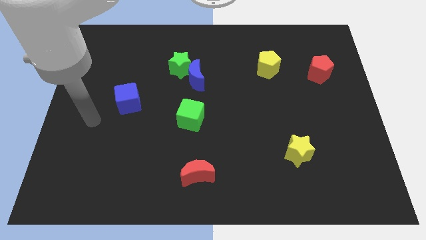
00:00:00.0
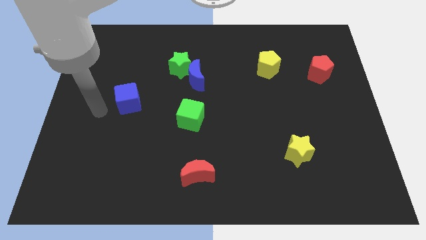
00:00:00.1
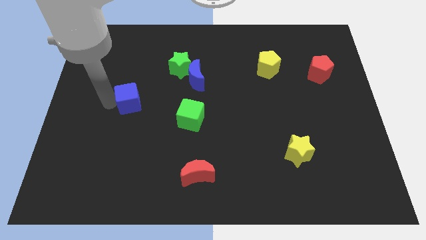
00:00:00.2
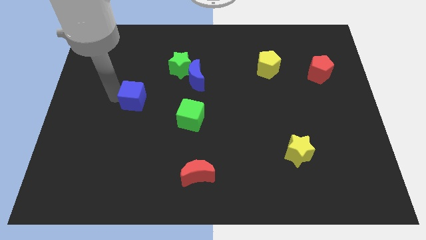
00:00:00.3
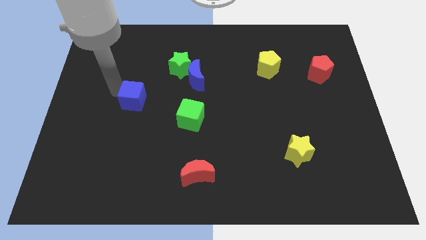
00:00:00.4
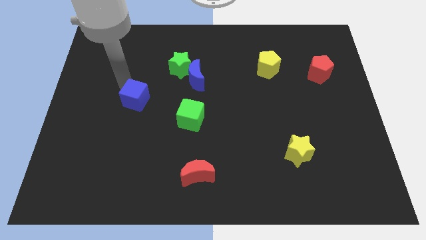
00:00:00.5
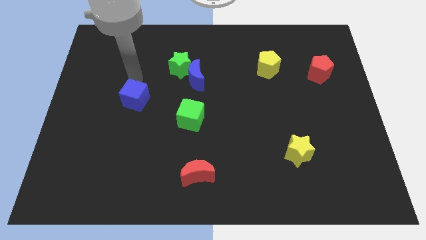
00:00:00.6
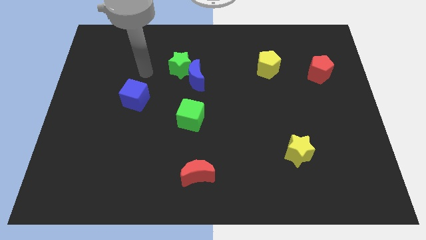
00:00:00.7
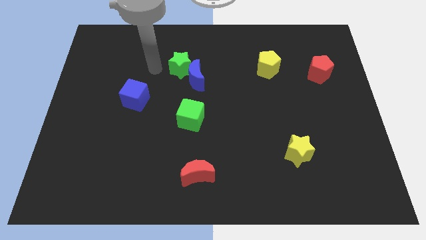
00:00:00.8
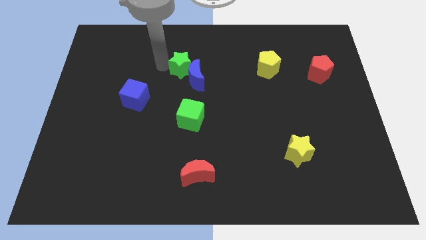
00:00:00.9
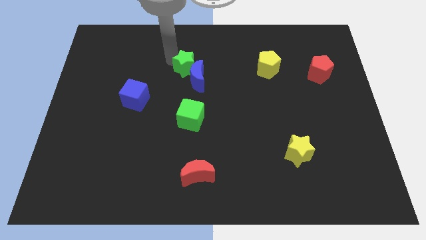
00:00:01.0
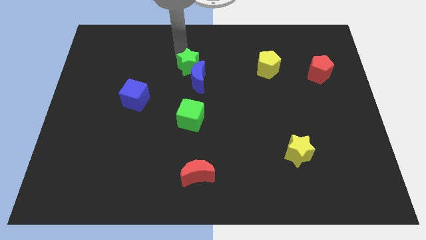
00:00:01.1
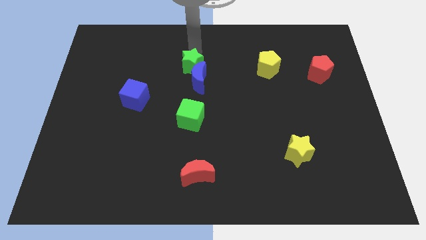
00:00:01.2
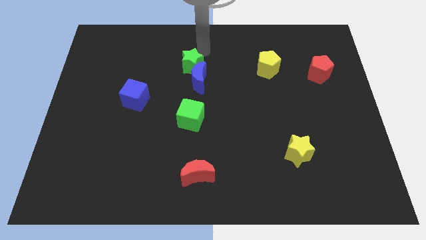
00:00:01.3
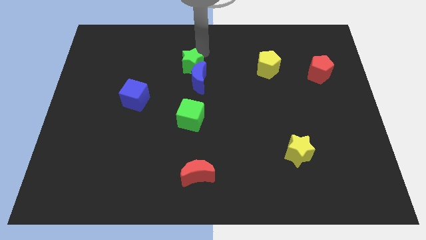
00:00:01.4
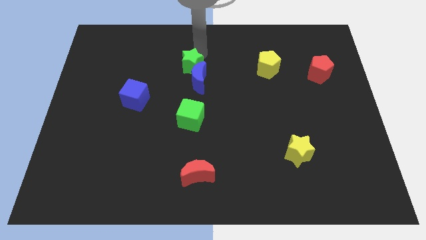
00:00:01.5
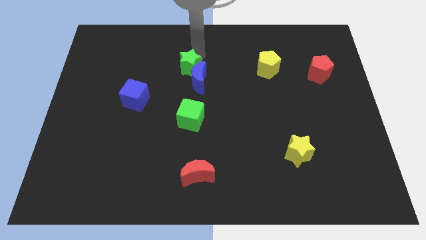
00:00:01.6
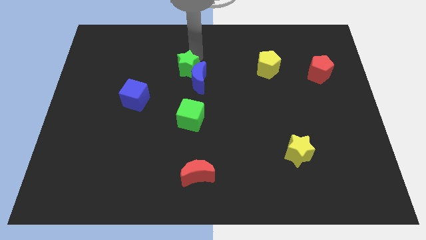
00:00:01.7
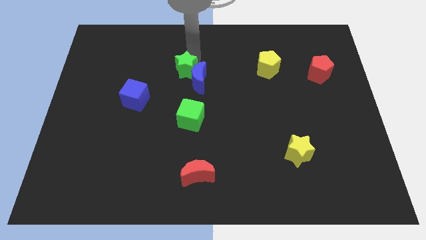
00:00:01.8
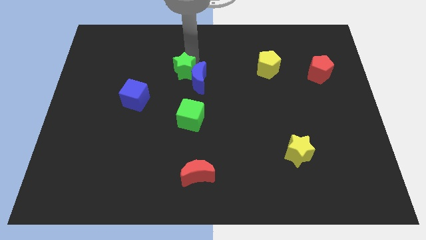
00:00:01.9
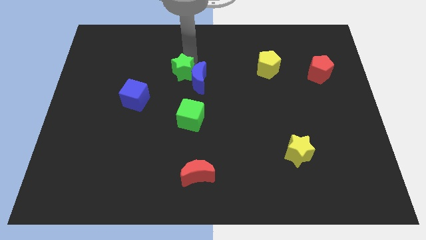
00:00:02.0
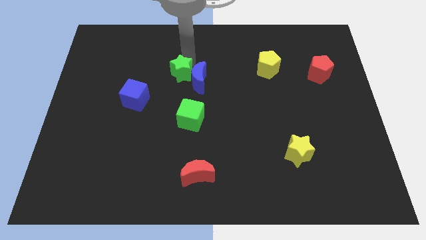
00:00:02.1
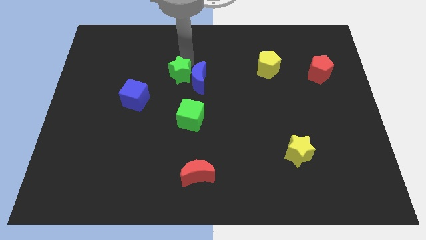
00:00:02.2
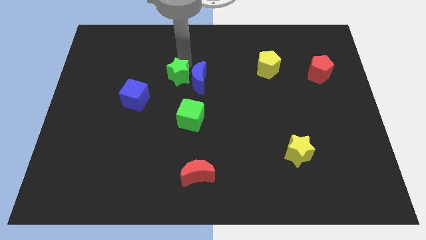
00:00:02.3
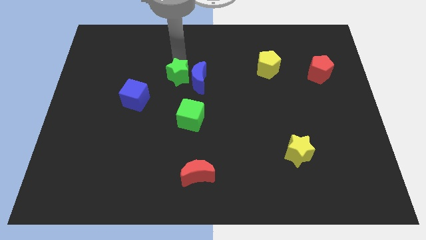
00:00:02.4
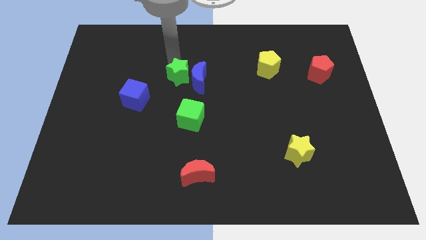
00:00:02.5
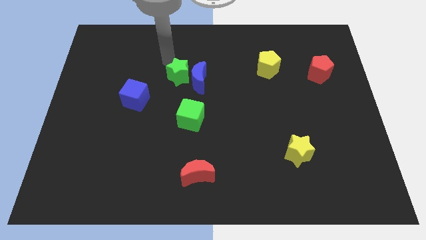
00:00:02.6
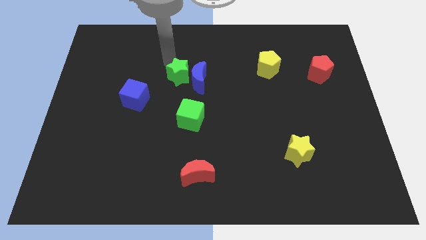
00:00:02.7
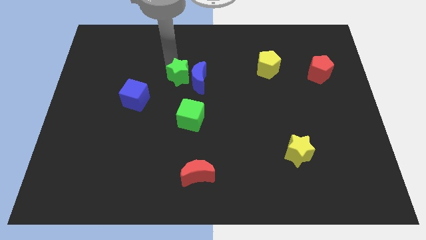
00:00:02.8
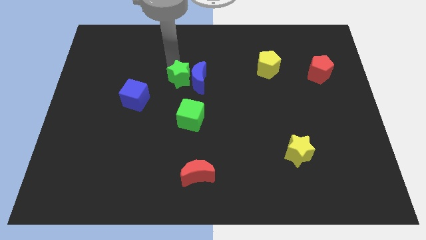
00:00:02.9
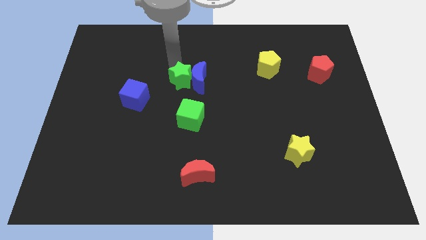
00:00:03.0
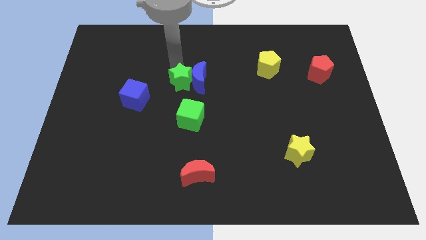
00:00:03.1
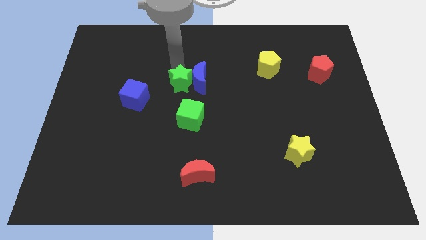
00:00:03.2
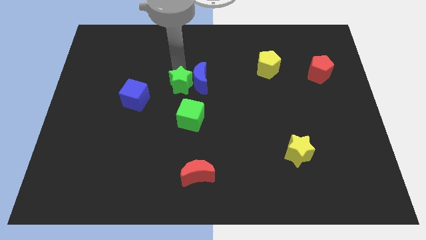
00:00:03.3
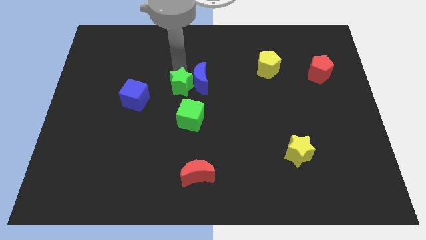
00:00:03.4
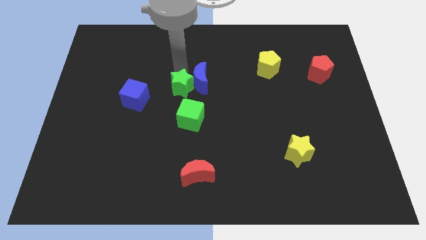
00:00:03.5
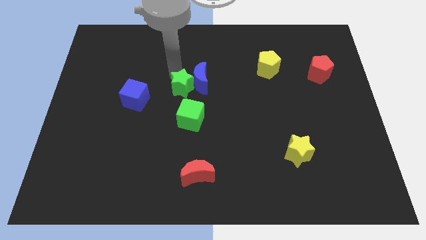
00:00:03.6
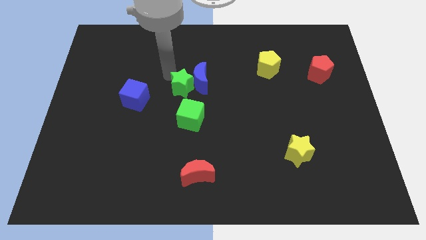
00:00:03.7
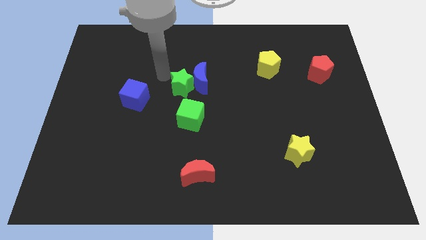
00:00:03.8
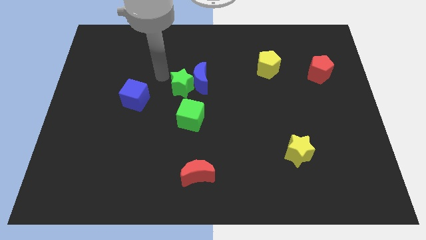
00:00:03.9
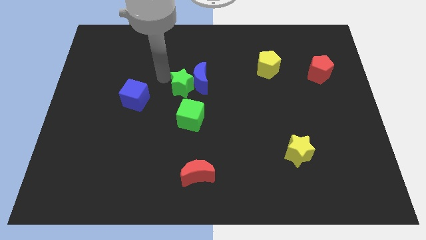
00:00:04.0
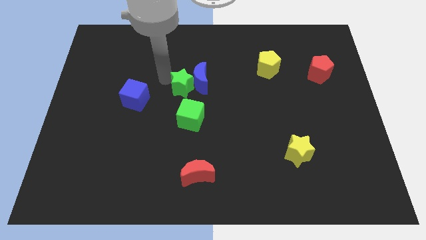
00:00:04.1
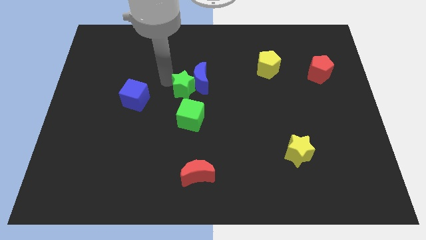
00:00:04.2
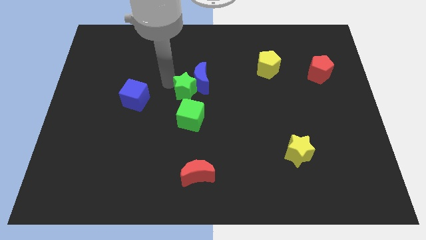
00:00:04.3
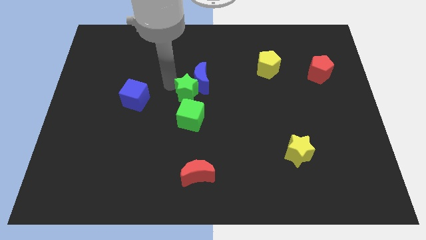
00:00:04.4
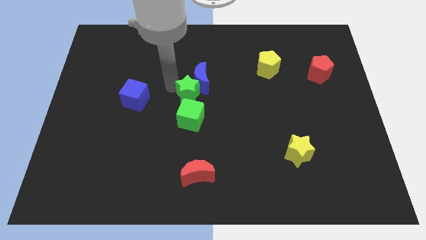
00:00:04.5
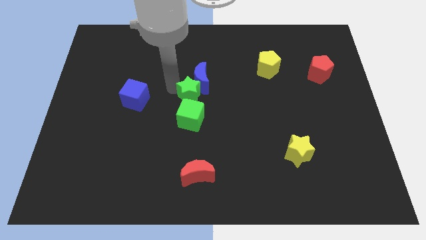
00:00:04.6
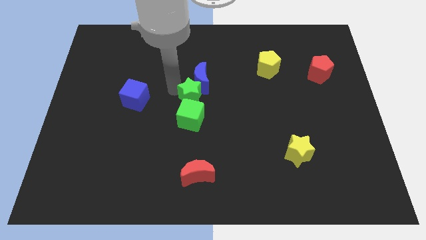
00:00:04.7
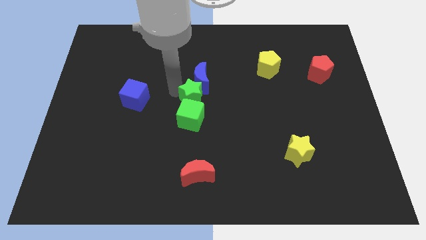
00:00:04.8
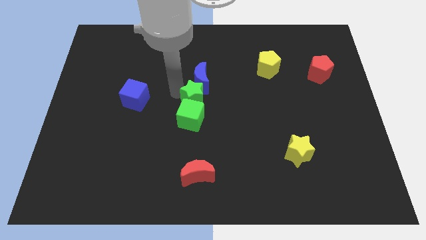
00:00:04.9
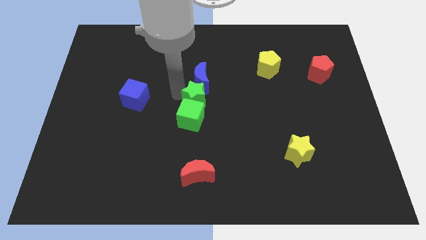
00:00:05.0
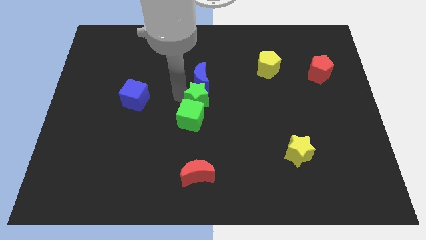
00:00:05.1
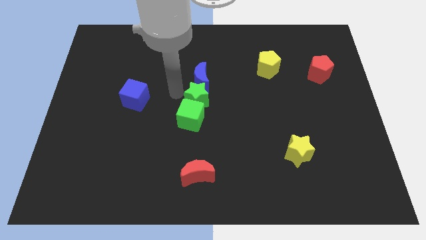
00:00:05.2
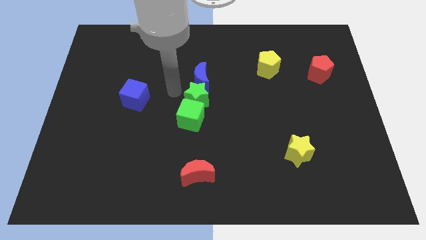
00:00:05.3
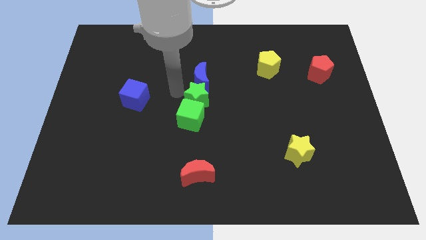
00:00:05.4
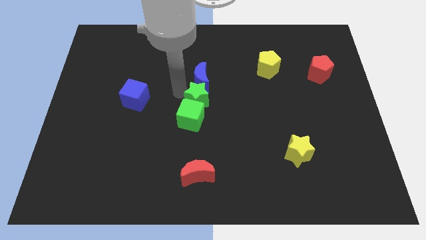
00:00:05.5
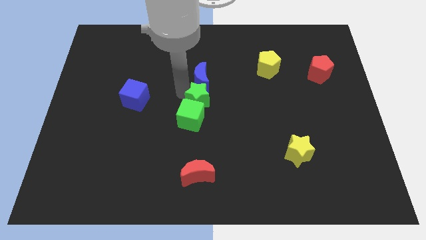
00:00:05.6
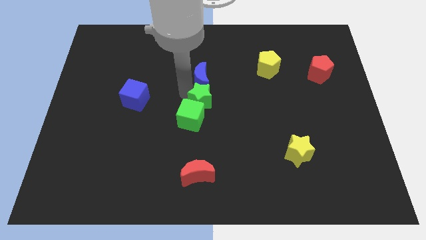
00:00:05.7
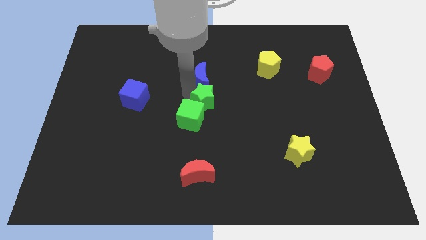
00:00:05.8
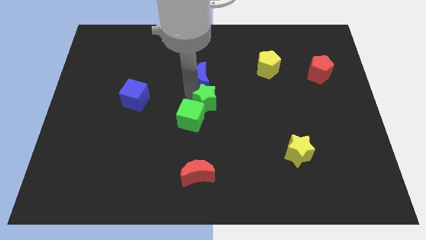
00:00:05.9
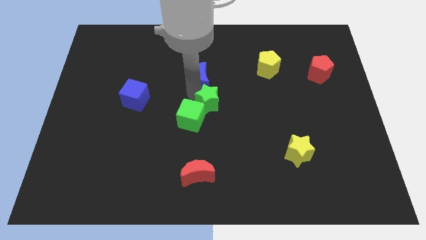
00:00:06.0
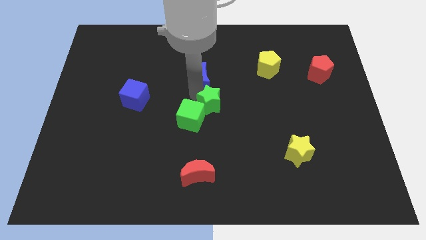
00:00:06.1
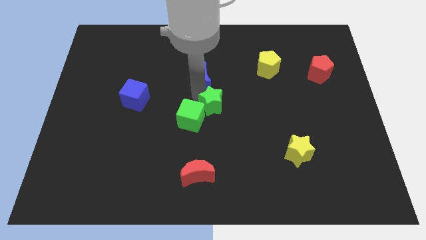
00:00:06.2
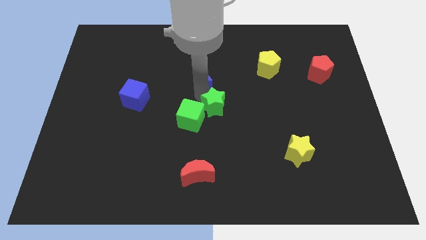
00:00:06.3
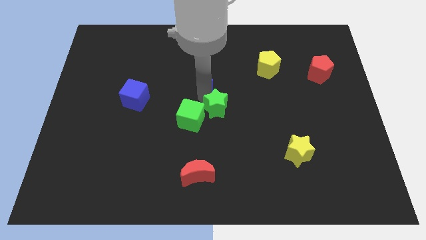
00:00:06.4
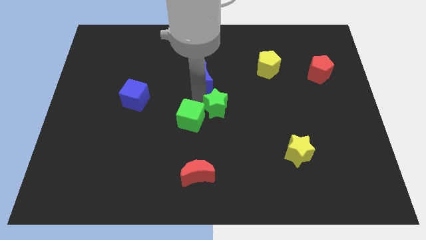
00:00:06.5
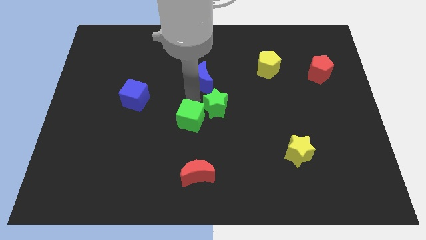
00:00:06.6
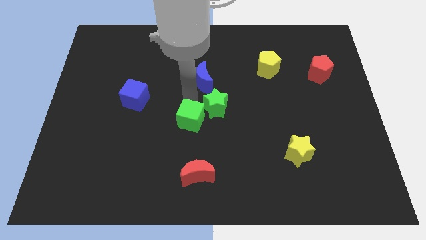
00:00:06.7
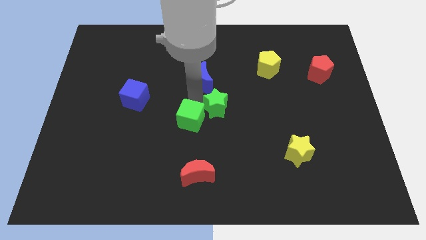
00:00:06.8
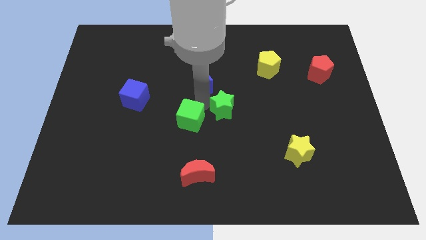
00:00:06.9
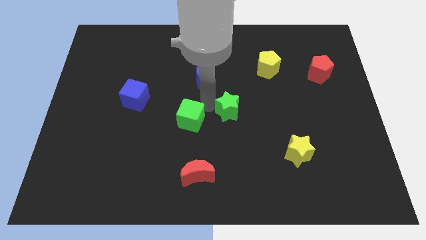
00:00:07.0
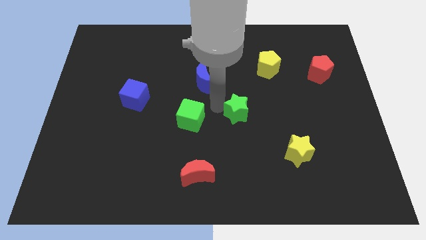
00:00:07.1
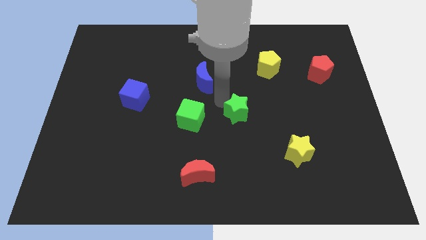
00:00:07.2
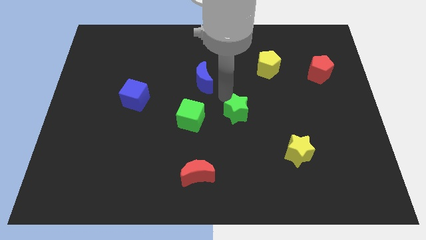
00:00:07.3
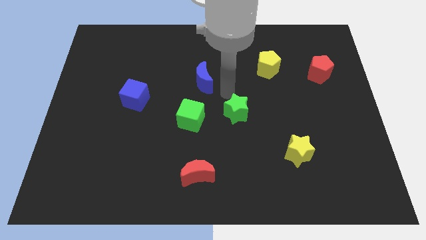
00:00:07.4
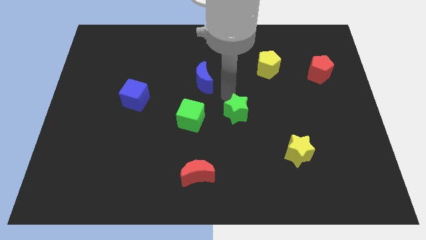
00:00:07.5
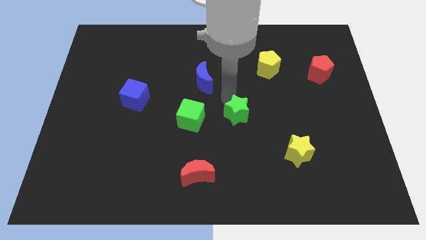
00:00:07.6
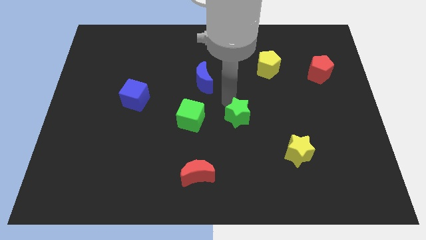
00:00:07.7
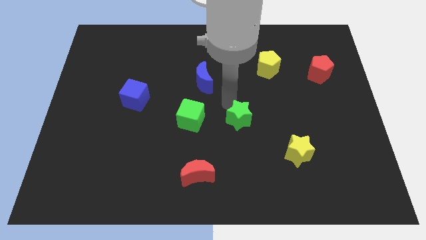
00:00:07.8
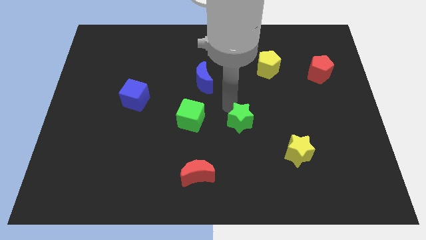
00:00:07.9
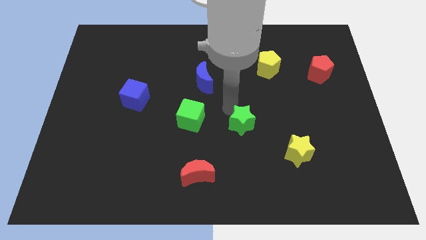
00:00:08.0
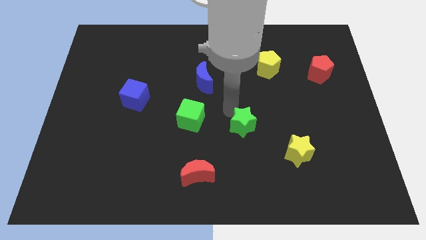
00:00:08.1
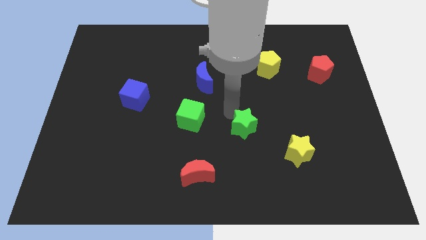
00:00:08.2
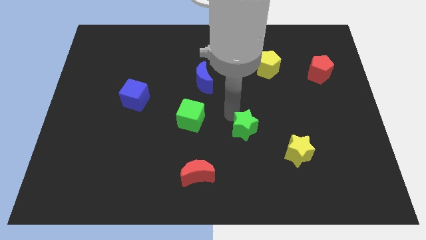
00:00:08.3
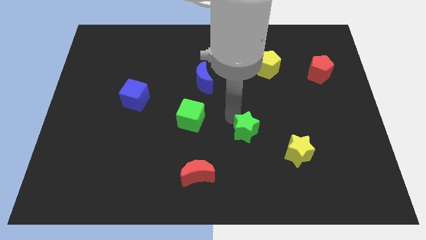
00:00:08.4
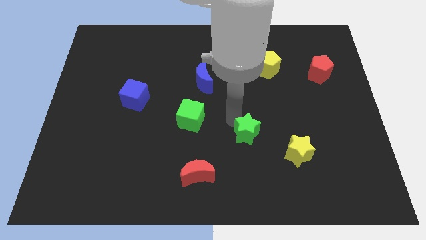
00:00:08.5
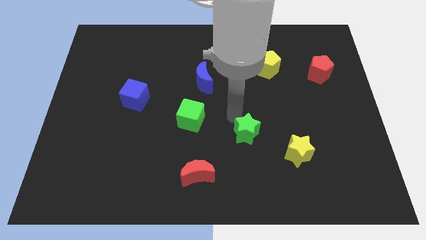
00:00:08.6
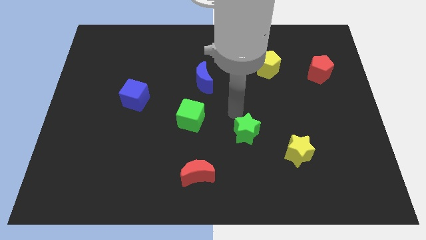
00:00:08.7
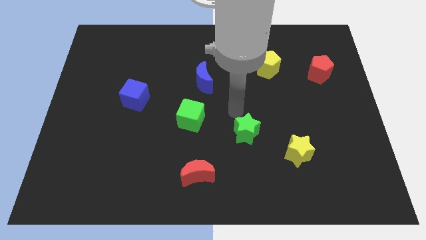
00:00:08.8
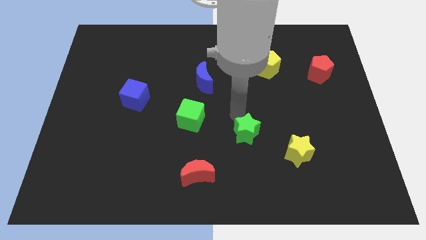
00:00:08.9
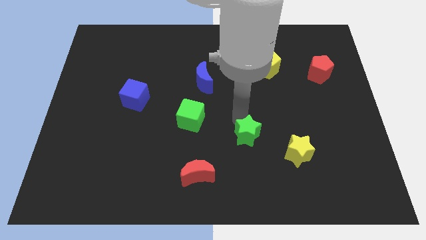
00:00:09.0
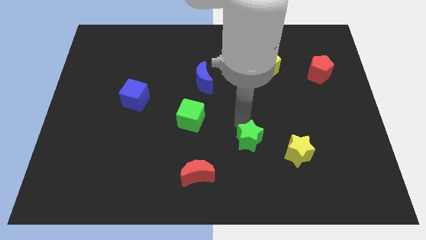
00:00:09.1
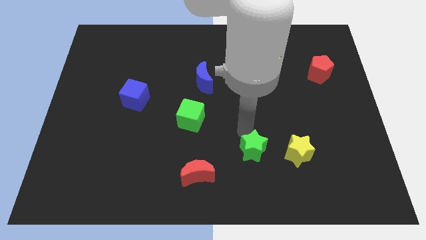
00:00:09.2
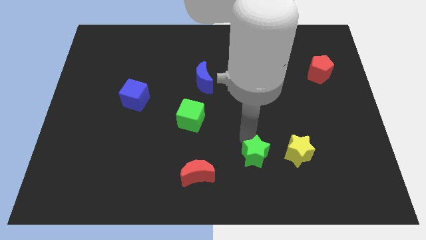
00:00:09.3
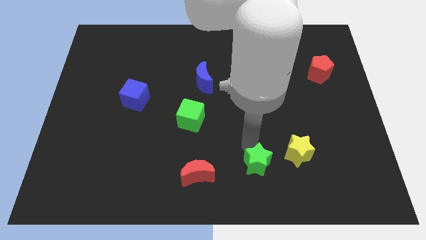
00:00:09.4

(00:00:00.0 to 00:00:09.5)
slide the green star diagonally down and to the left of the yellow star
